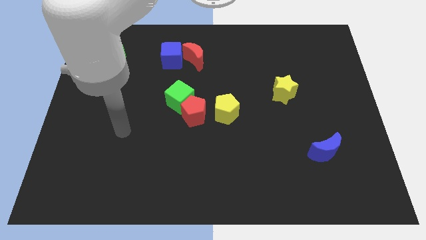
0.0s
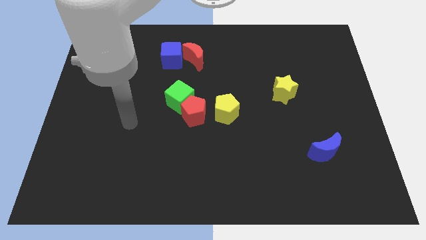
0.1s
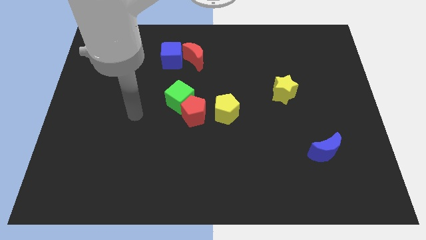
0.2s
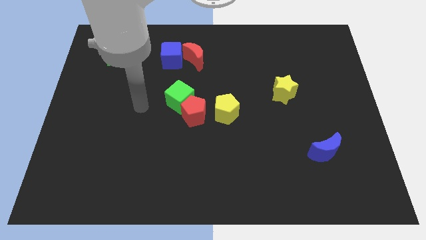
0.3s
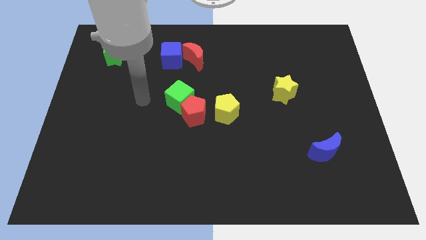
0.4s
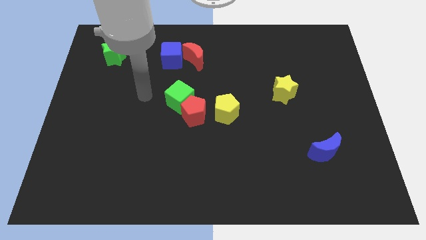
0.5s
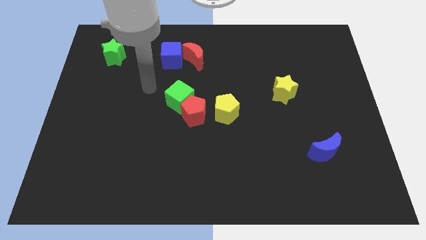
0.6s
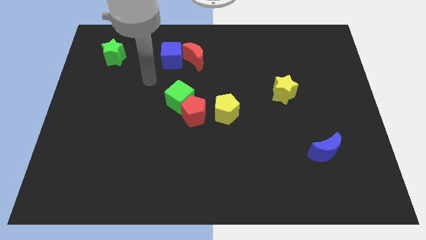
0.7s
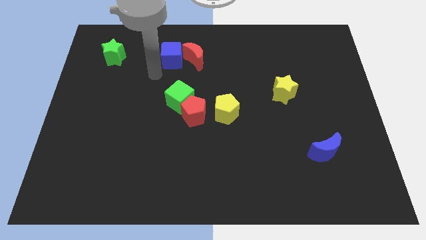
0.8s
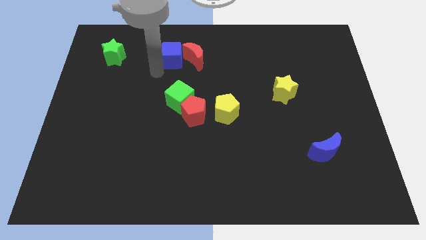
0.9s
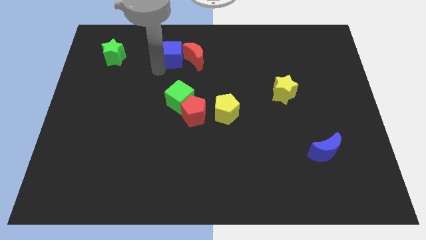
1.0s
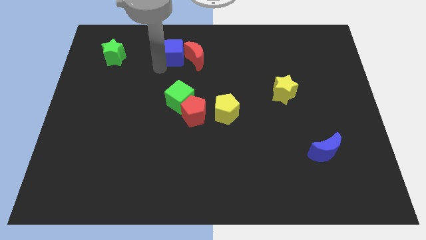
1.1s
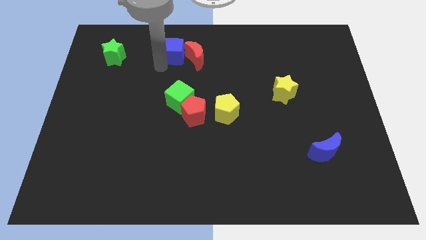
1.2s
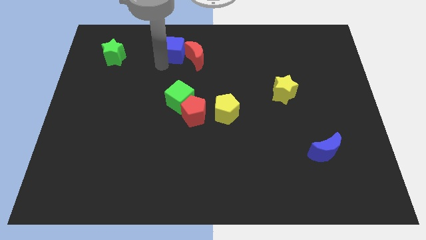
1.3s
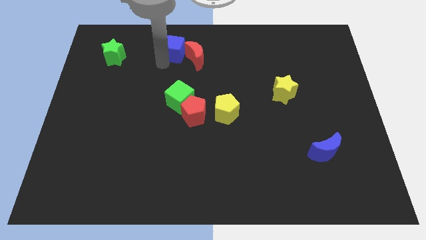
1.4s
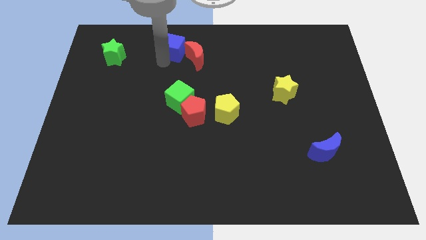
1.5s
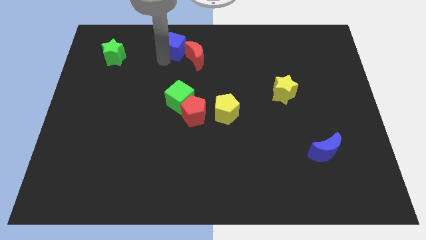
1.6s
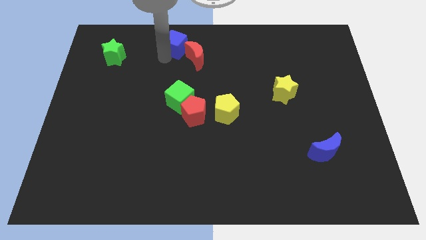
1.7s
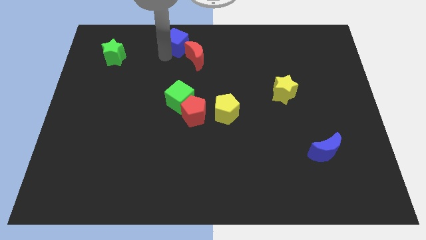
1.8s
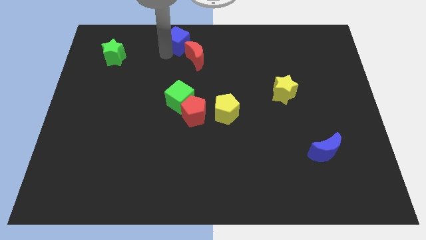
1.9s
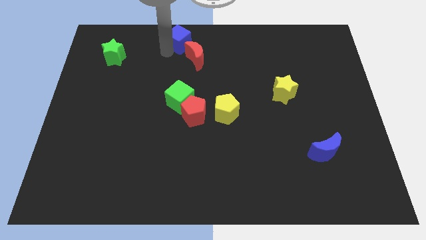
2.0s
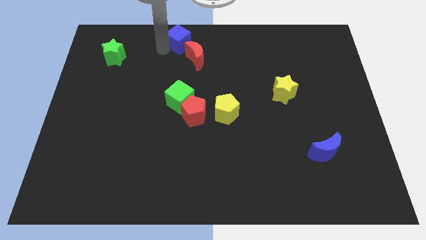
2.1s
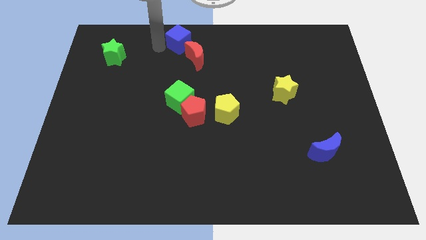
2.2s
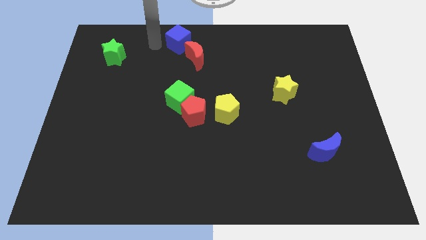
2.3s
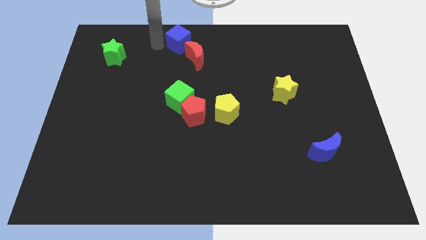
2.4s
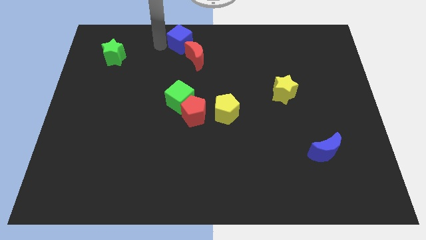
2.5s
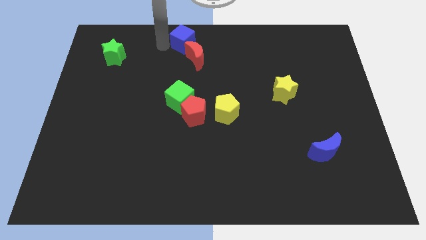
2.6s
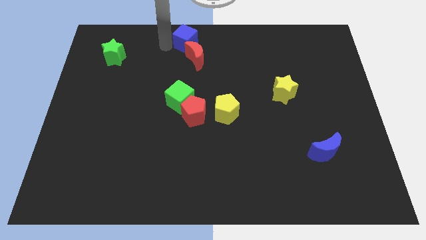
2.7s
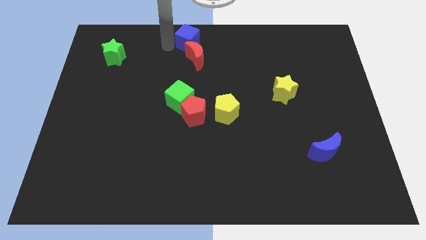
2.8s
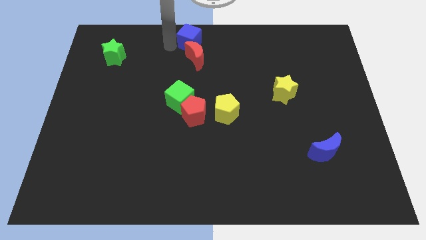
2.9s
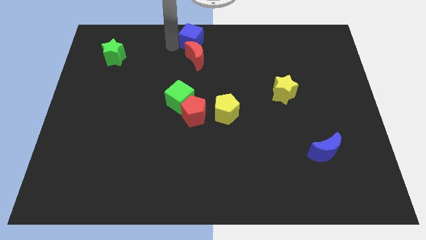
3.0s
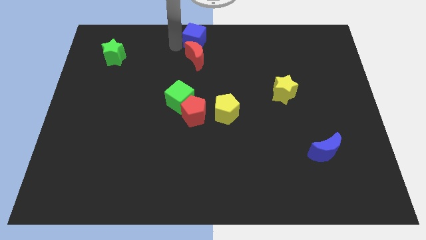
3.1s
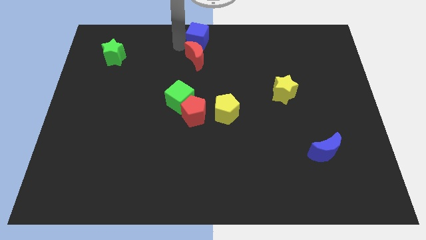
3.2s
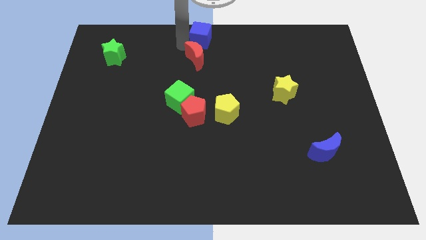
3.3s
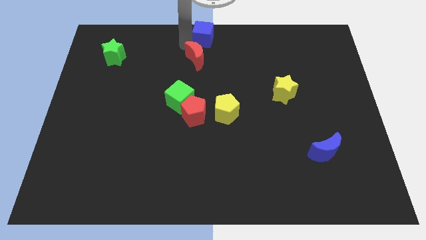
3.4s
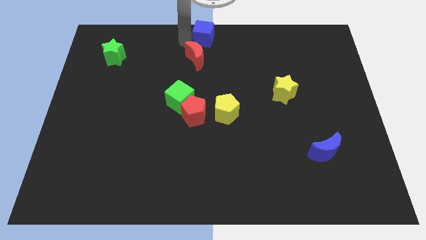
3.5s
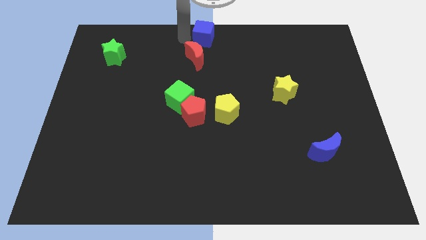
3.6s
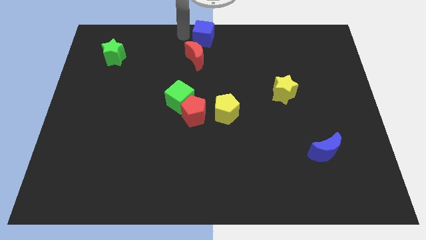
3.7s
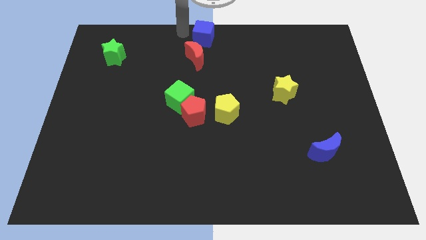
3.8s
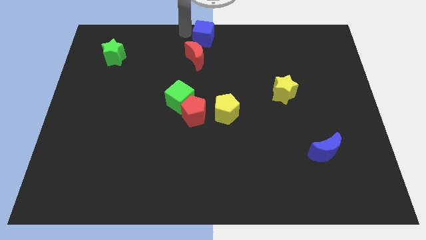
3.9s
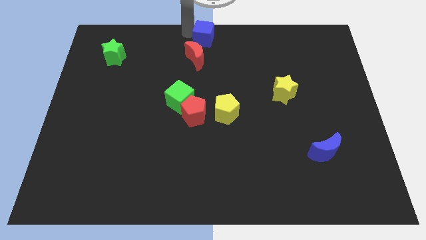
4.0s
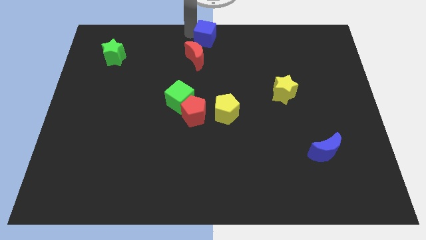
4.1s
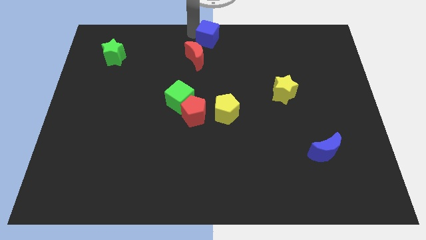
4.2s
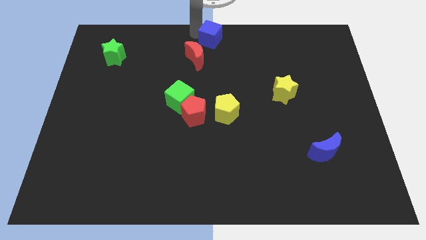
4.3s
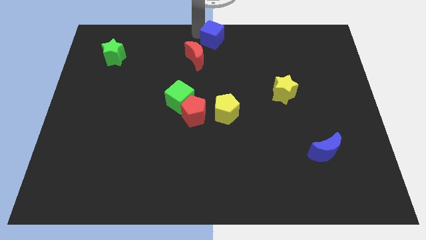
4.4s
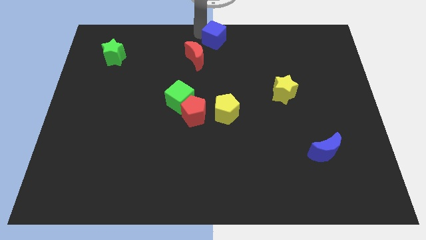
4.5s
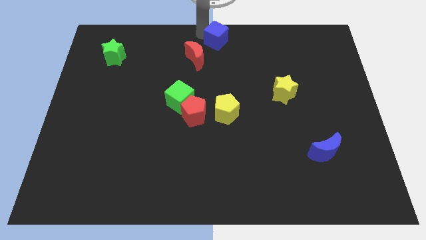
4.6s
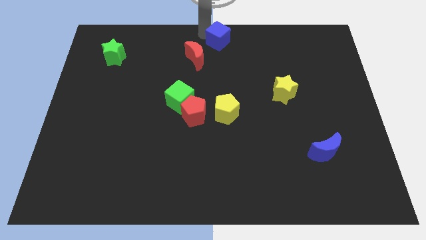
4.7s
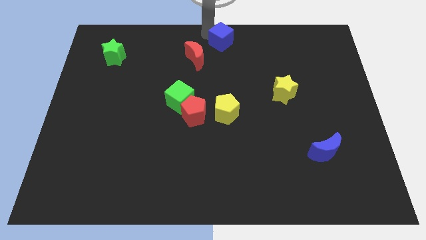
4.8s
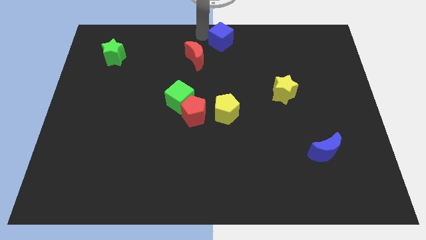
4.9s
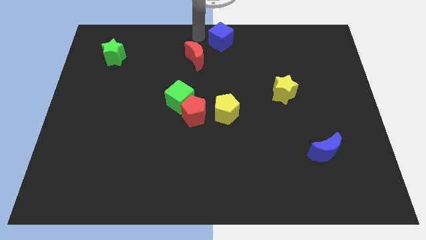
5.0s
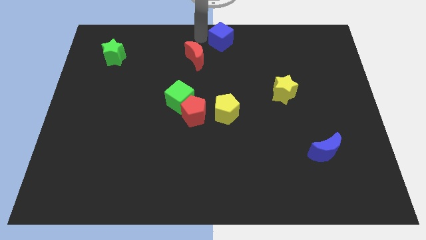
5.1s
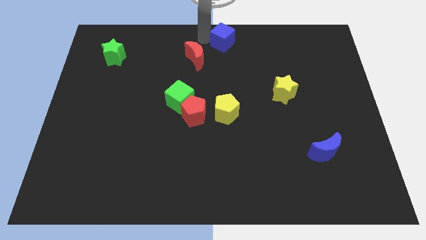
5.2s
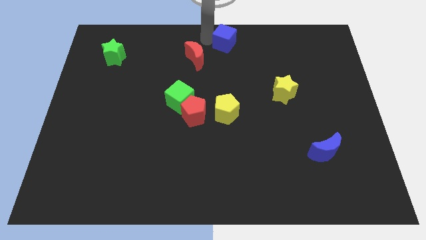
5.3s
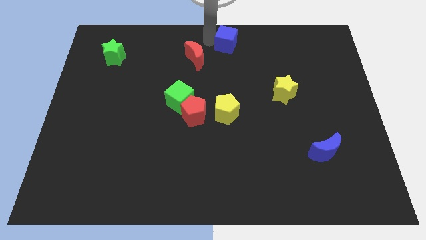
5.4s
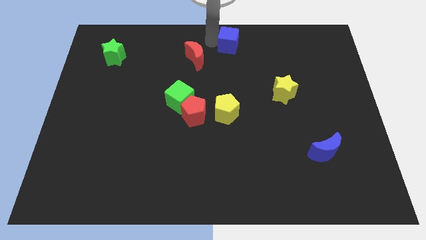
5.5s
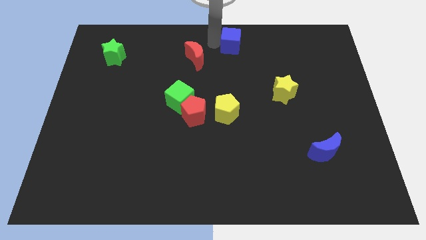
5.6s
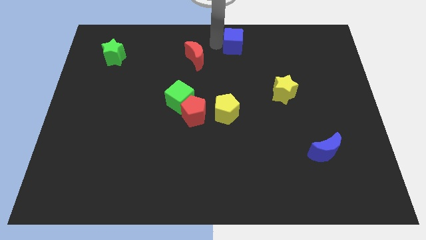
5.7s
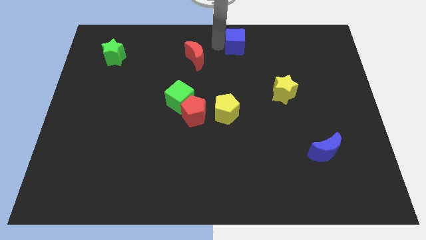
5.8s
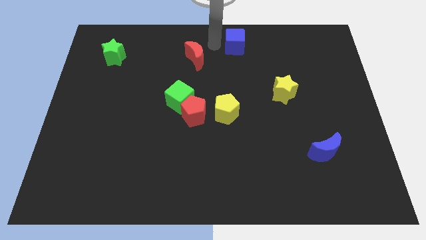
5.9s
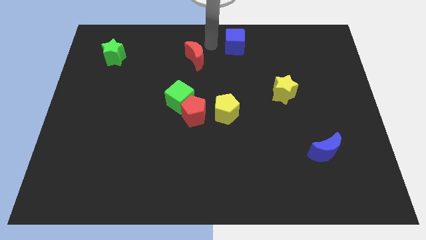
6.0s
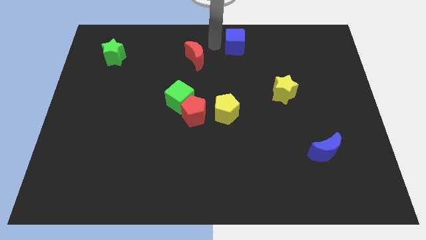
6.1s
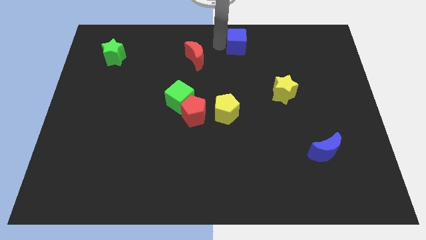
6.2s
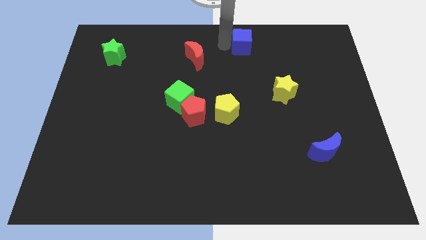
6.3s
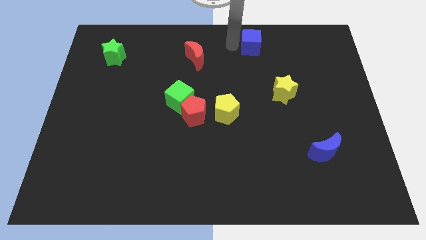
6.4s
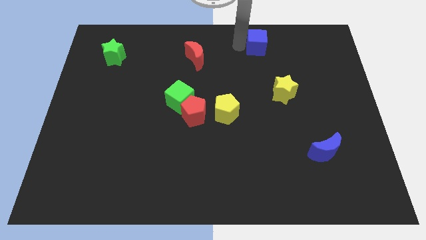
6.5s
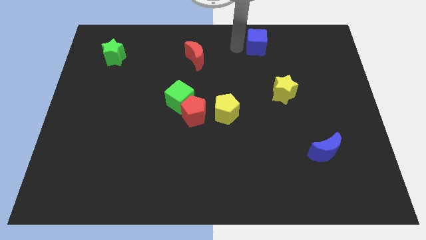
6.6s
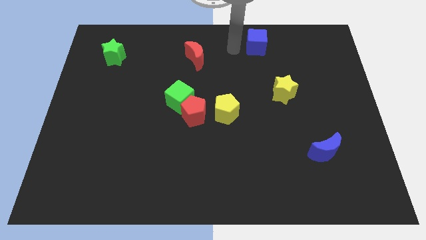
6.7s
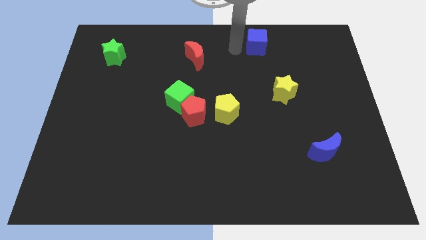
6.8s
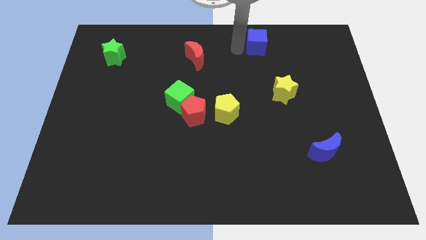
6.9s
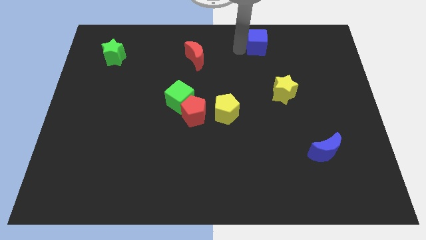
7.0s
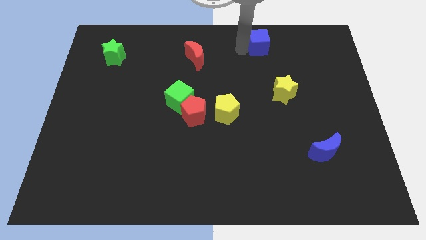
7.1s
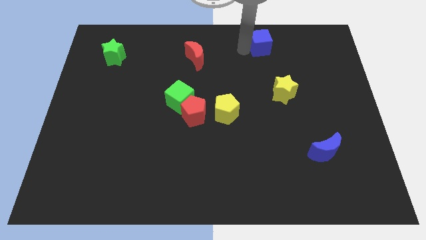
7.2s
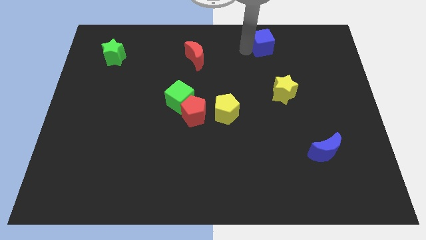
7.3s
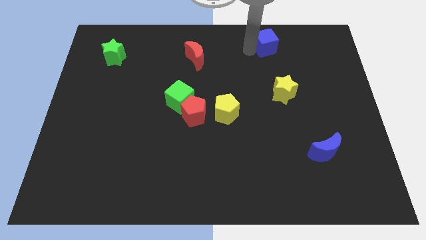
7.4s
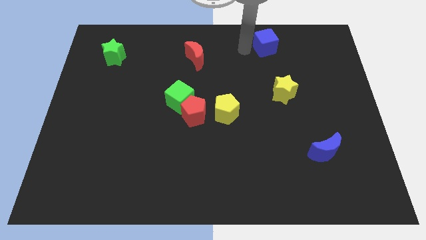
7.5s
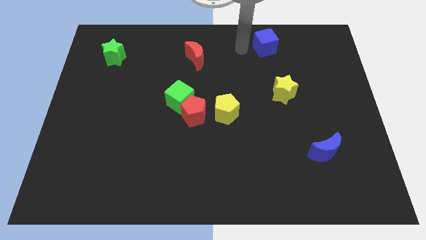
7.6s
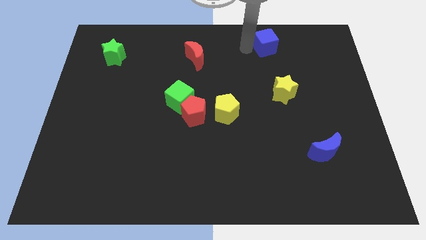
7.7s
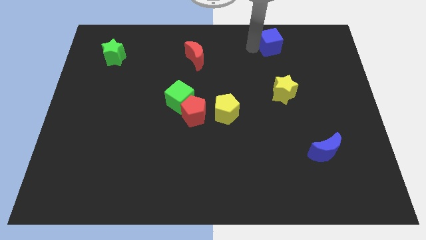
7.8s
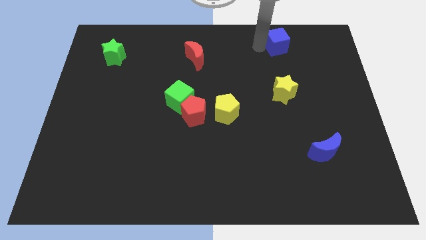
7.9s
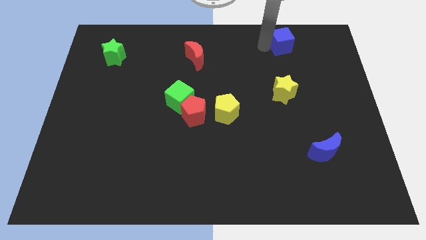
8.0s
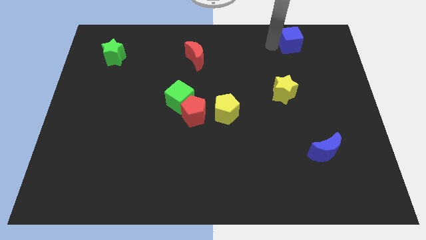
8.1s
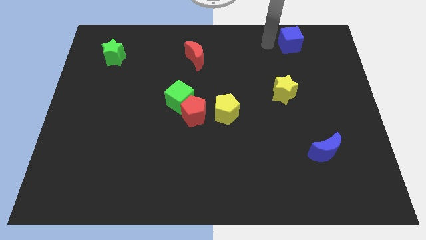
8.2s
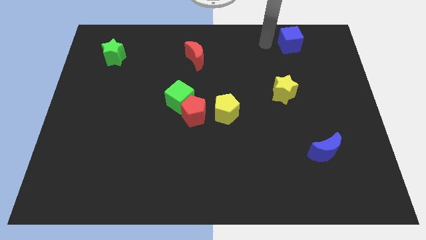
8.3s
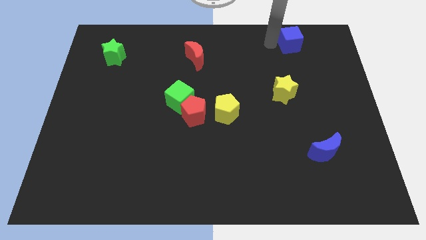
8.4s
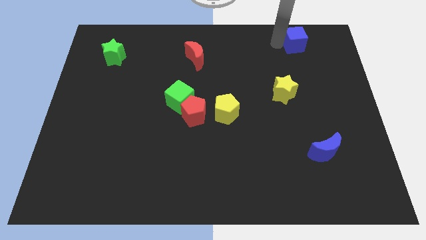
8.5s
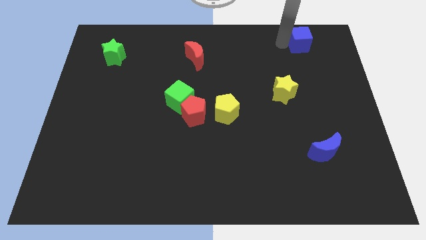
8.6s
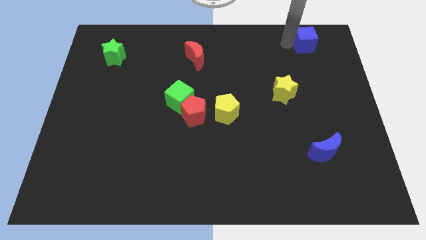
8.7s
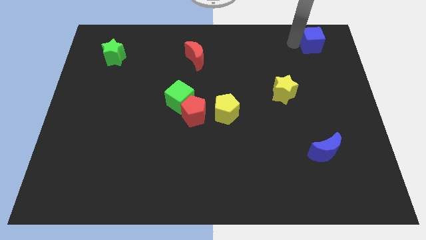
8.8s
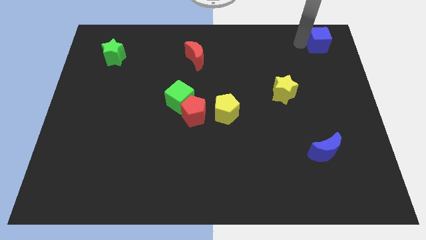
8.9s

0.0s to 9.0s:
move the blue cube to the top right corner
